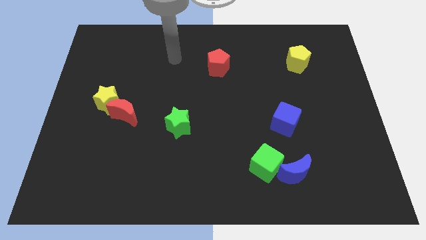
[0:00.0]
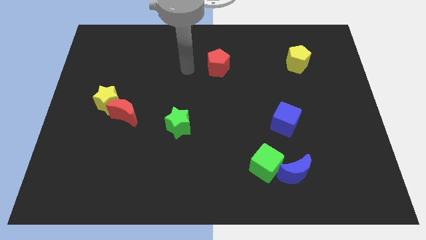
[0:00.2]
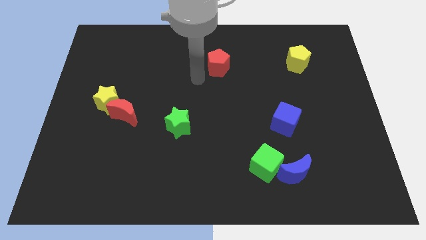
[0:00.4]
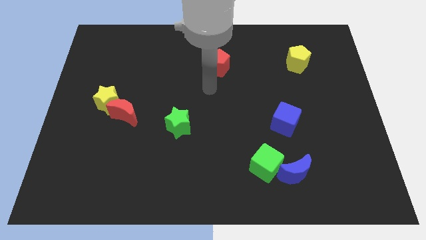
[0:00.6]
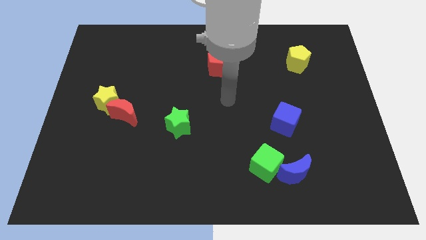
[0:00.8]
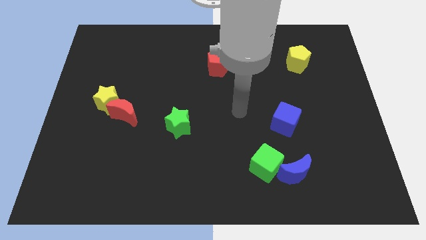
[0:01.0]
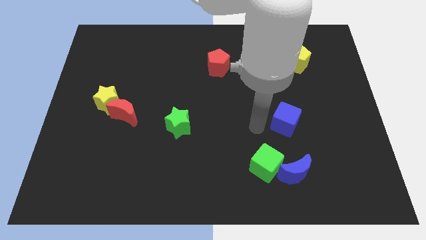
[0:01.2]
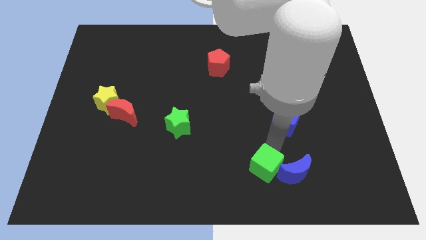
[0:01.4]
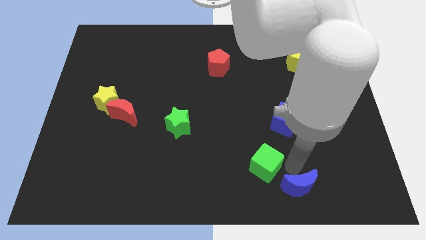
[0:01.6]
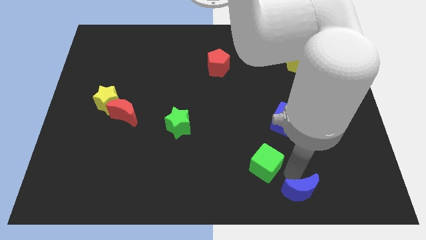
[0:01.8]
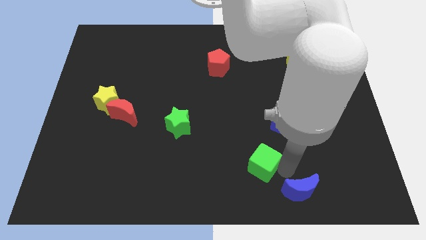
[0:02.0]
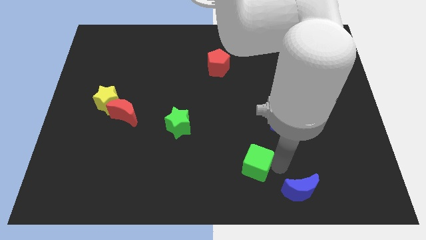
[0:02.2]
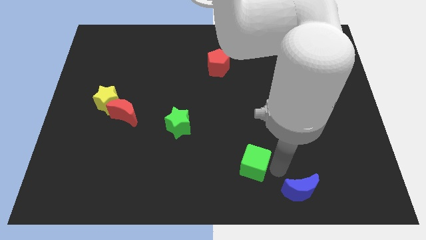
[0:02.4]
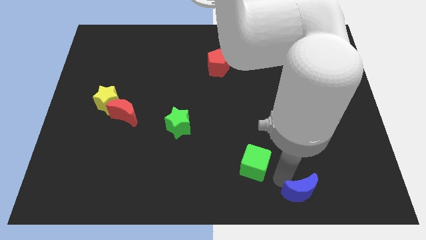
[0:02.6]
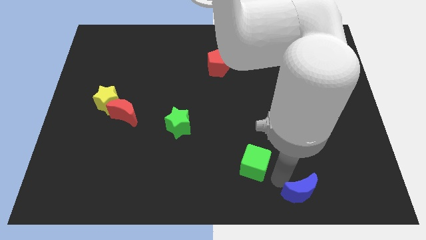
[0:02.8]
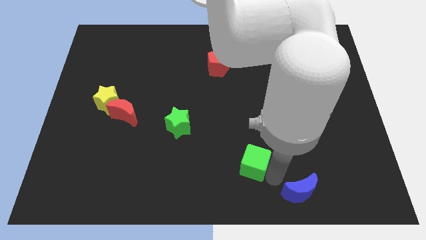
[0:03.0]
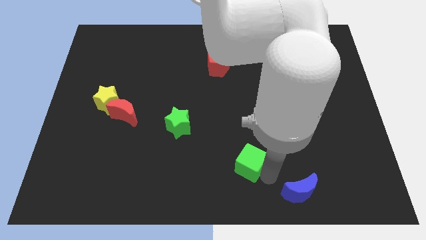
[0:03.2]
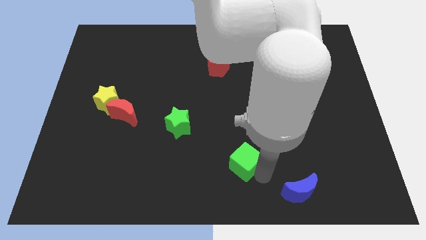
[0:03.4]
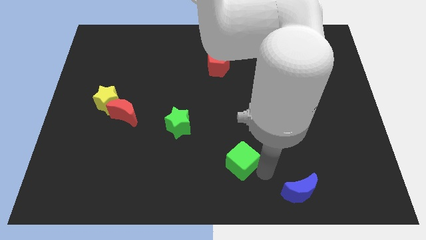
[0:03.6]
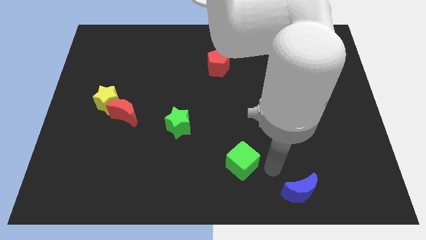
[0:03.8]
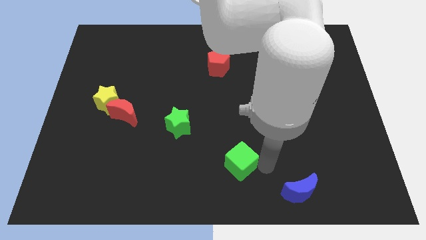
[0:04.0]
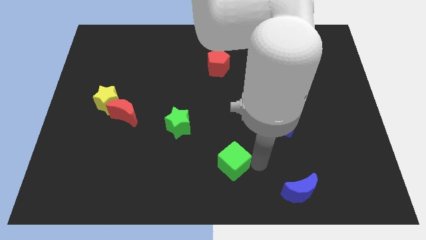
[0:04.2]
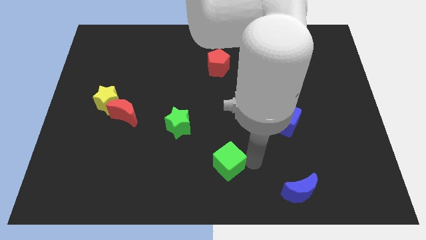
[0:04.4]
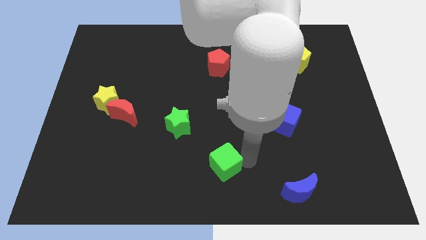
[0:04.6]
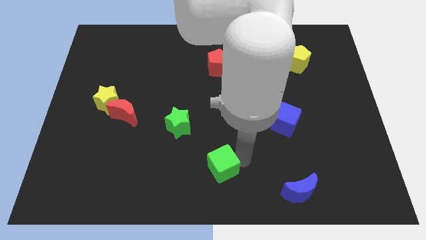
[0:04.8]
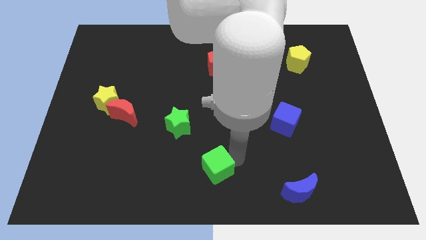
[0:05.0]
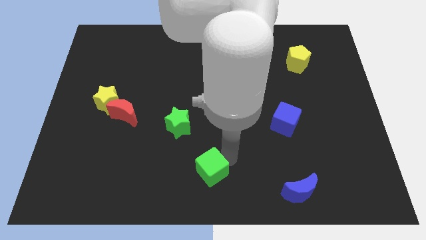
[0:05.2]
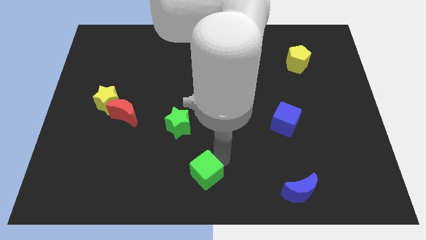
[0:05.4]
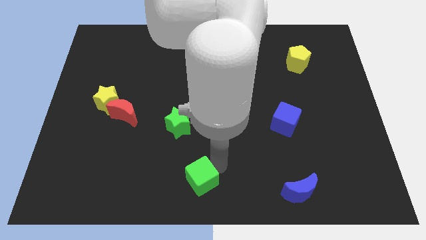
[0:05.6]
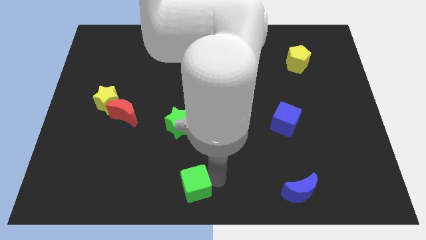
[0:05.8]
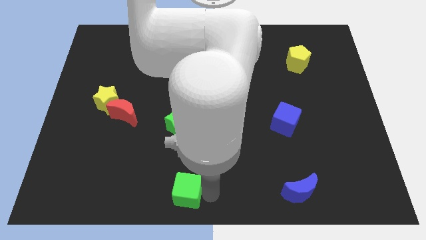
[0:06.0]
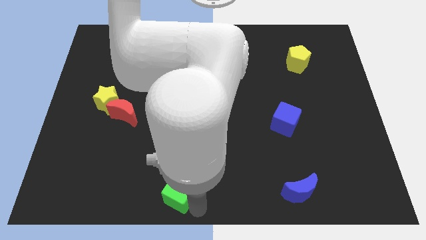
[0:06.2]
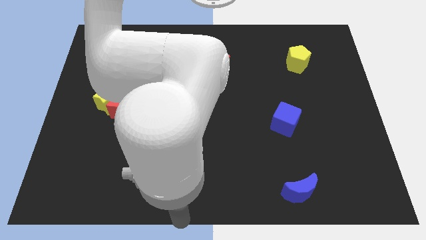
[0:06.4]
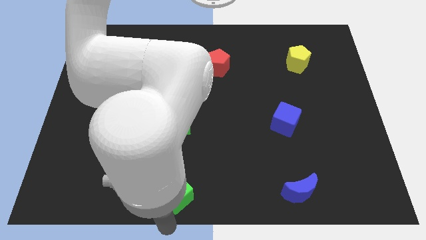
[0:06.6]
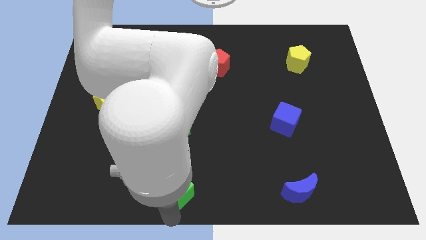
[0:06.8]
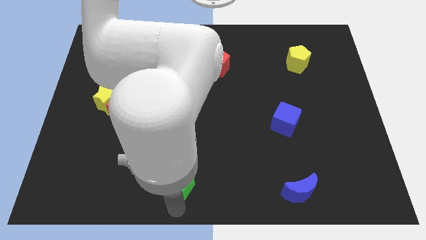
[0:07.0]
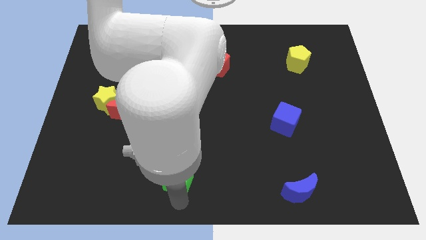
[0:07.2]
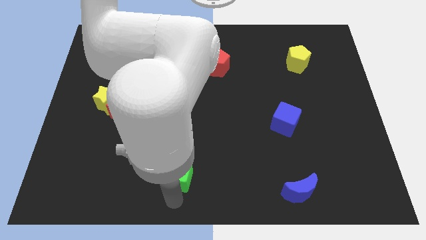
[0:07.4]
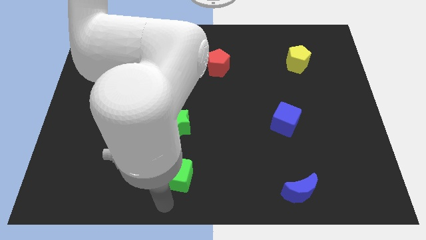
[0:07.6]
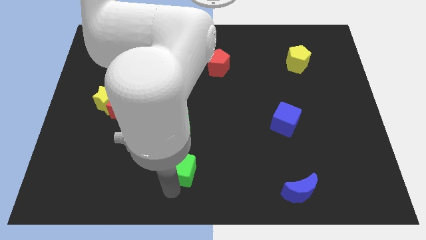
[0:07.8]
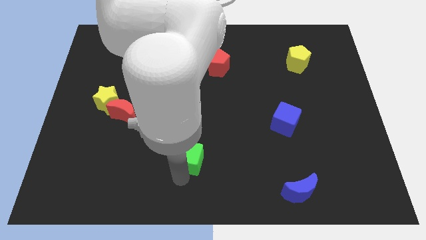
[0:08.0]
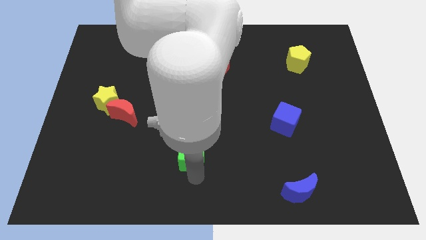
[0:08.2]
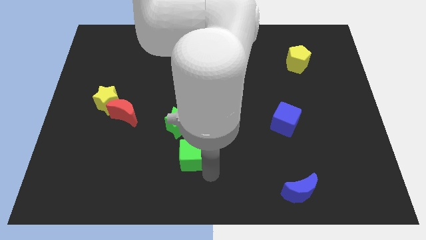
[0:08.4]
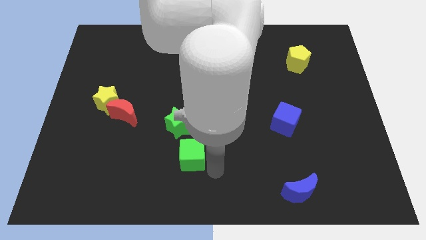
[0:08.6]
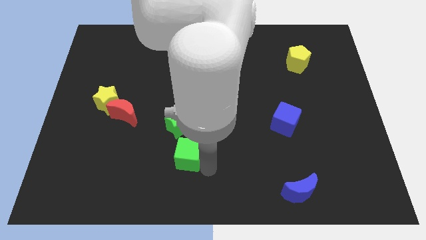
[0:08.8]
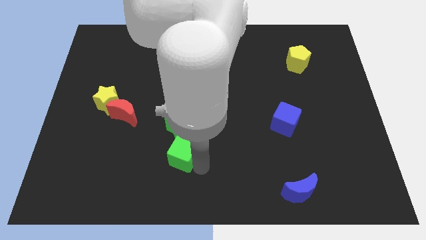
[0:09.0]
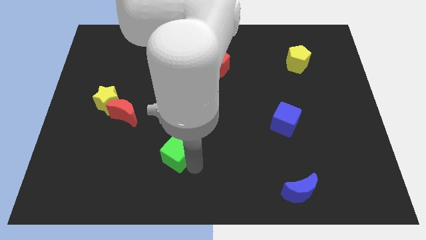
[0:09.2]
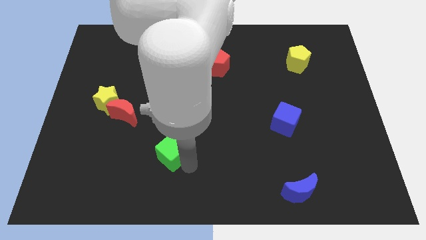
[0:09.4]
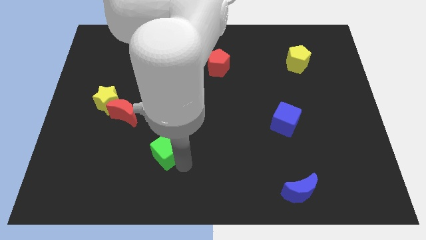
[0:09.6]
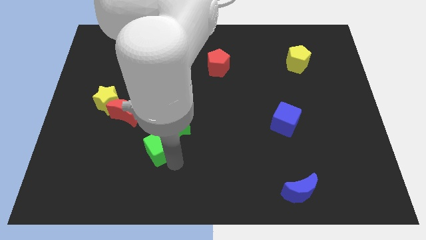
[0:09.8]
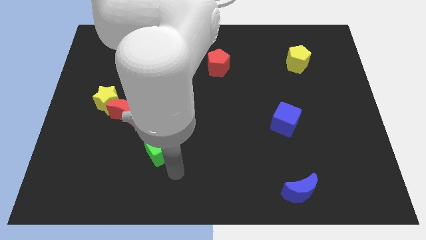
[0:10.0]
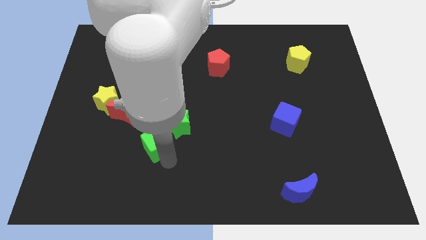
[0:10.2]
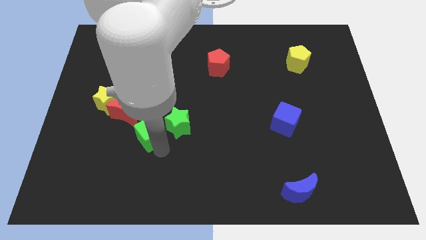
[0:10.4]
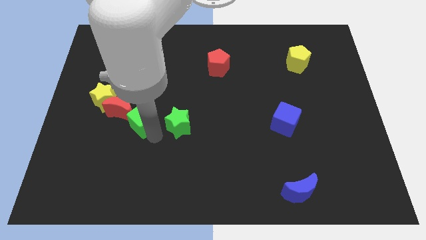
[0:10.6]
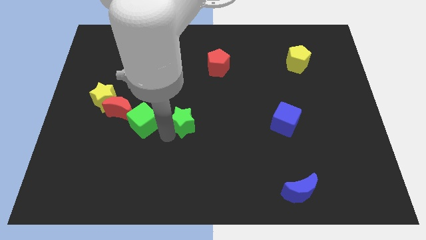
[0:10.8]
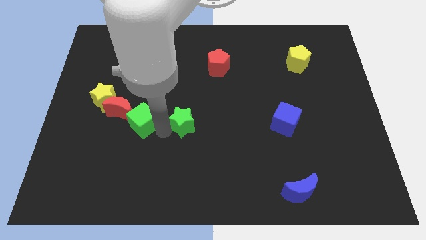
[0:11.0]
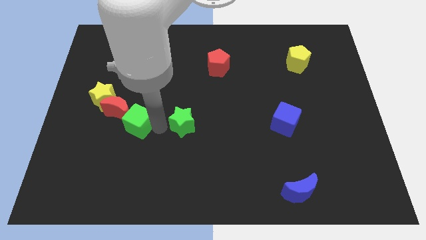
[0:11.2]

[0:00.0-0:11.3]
slide the green cube next to the red moon

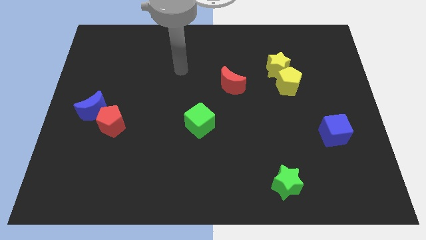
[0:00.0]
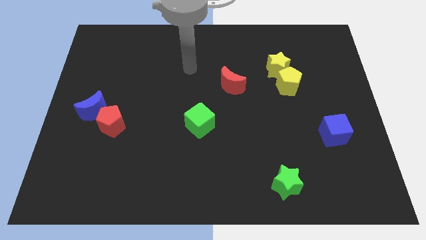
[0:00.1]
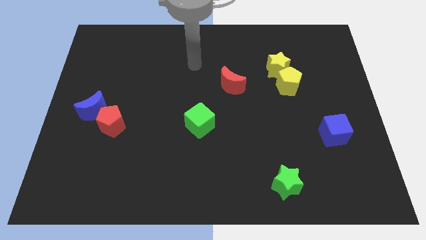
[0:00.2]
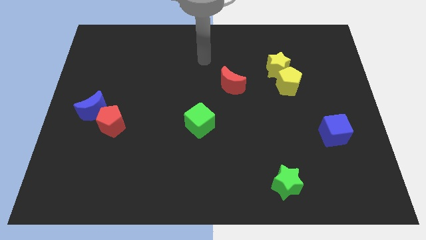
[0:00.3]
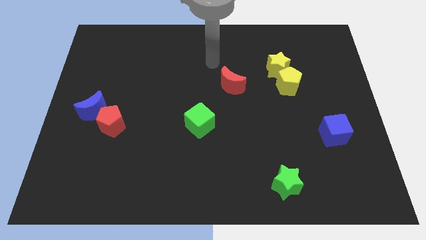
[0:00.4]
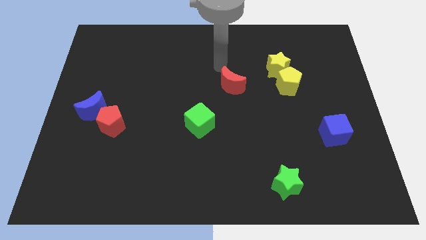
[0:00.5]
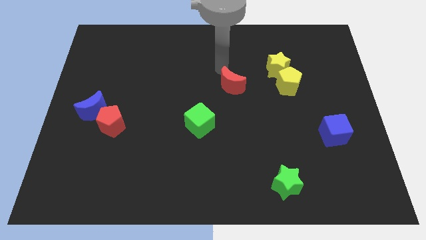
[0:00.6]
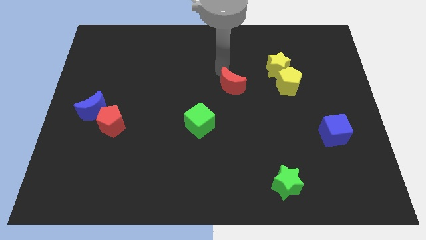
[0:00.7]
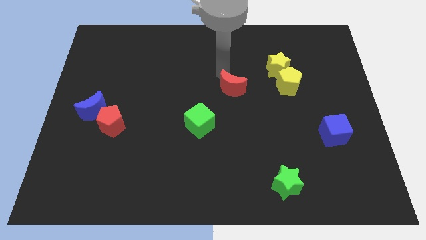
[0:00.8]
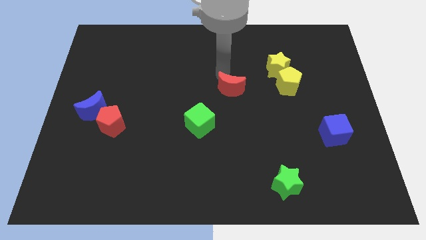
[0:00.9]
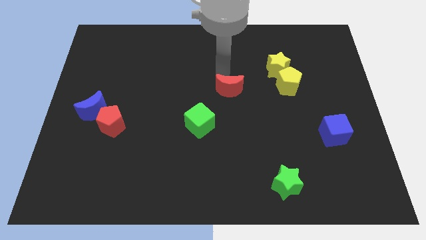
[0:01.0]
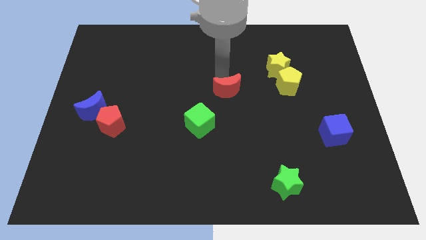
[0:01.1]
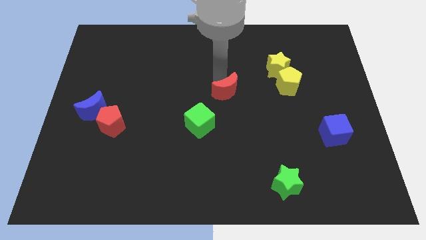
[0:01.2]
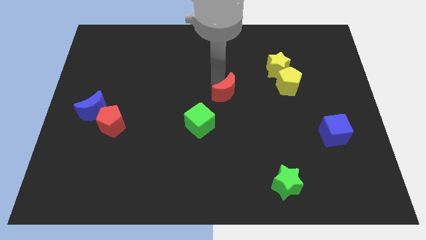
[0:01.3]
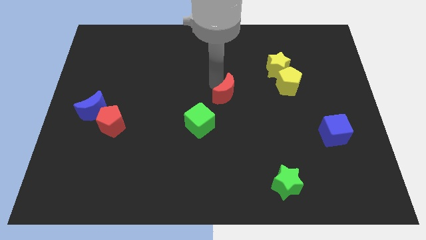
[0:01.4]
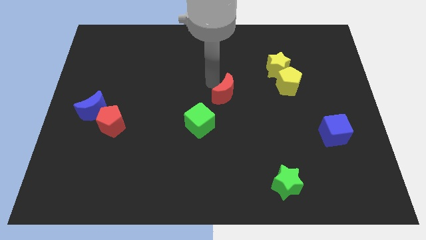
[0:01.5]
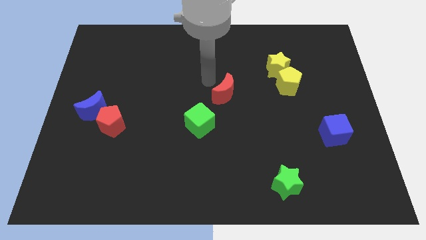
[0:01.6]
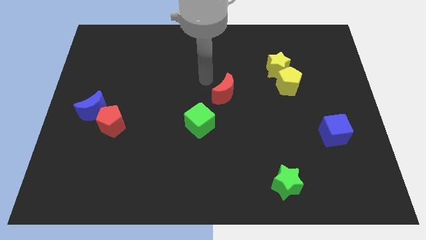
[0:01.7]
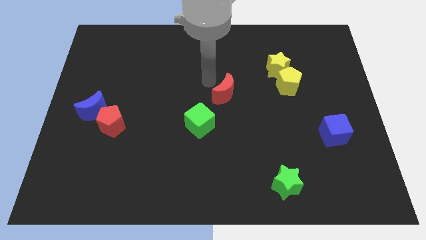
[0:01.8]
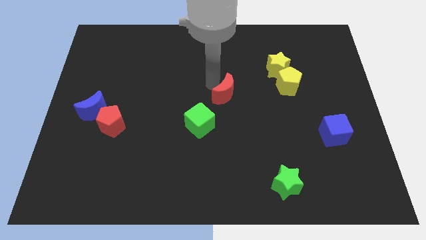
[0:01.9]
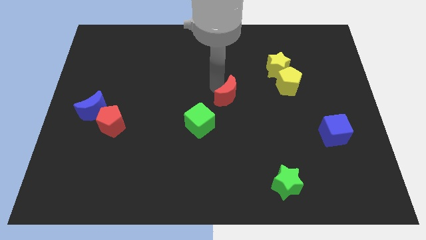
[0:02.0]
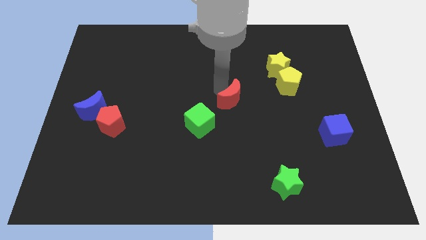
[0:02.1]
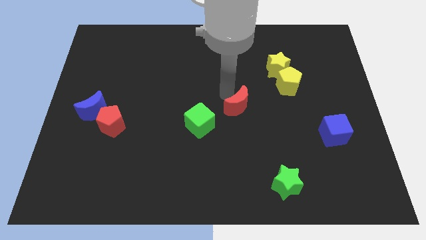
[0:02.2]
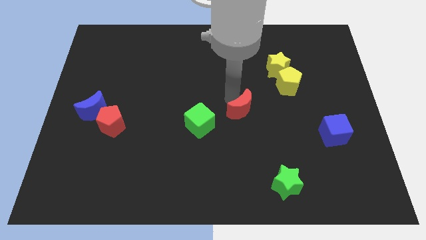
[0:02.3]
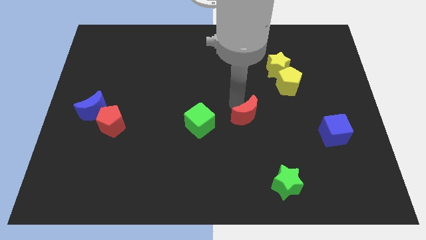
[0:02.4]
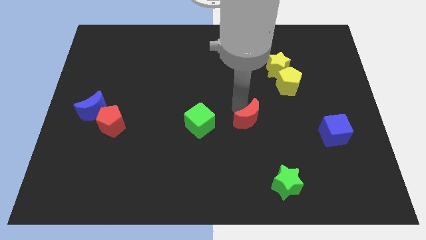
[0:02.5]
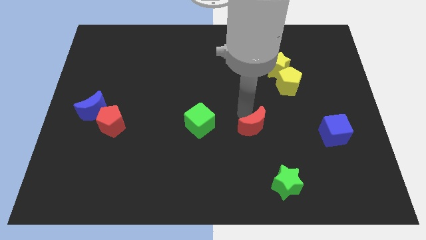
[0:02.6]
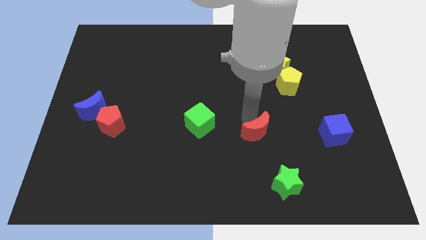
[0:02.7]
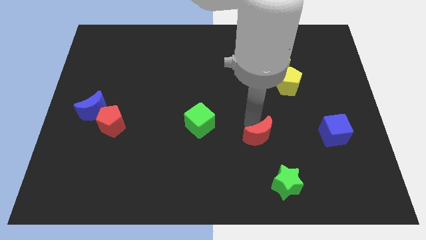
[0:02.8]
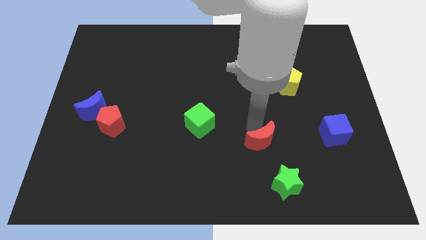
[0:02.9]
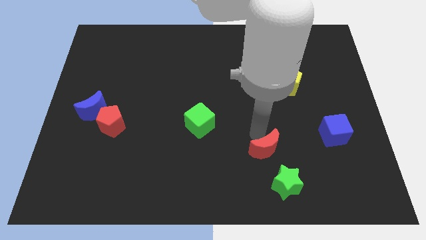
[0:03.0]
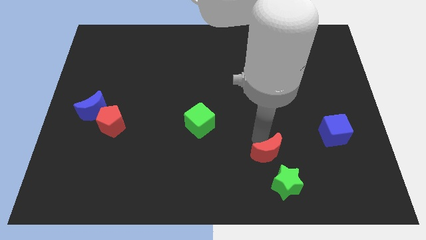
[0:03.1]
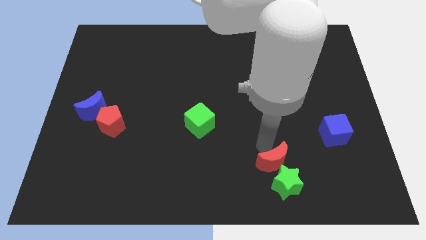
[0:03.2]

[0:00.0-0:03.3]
move the red moon to the green star
